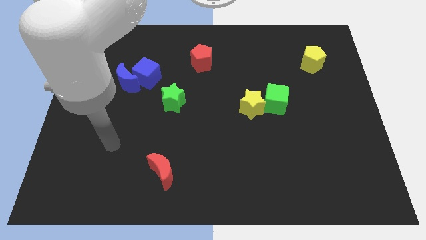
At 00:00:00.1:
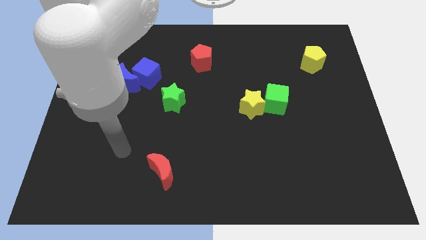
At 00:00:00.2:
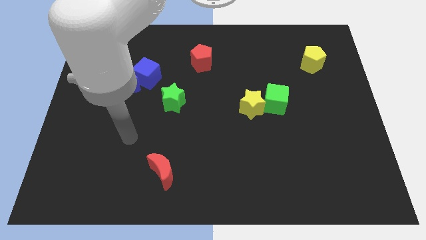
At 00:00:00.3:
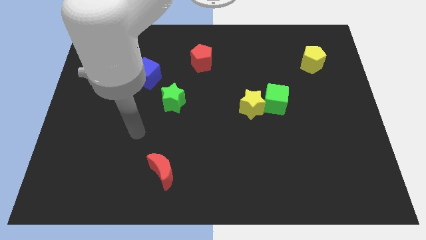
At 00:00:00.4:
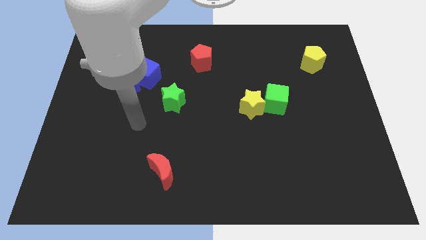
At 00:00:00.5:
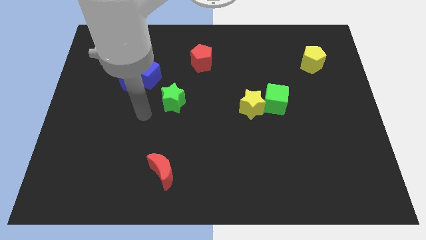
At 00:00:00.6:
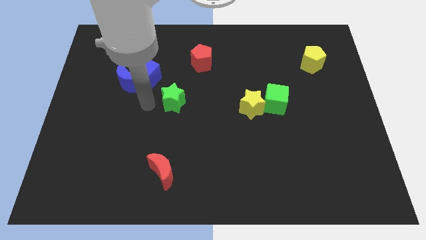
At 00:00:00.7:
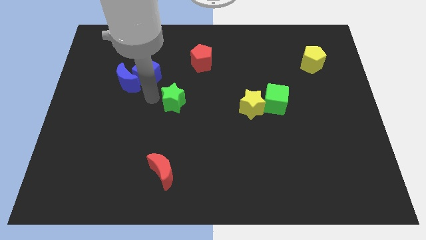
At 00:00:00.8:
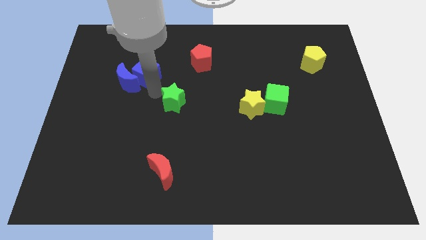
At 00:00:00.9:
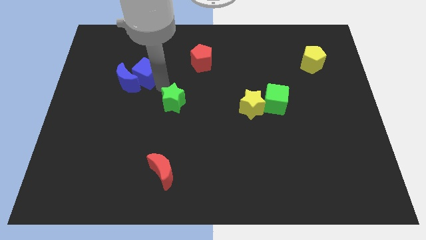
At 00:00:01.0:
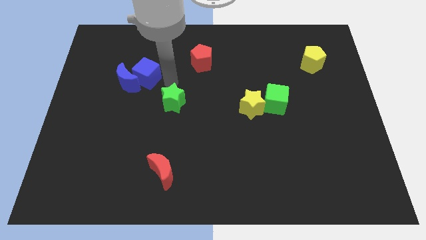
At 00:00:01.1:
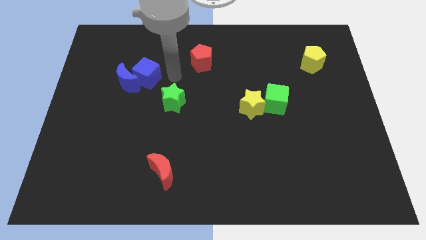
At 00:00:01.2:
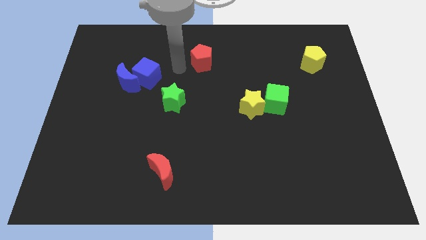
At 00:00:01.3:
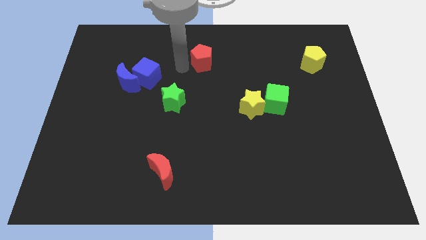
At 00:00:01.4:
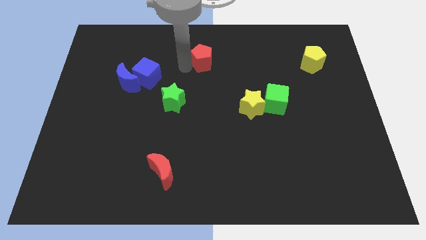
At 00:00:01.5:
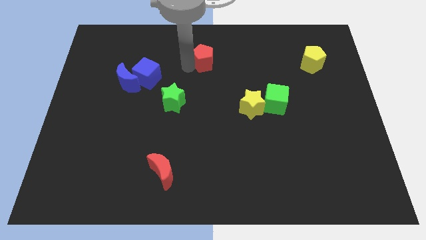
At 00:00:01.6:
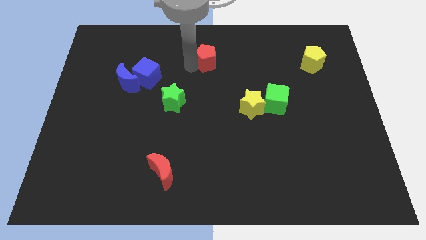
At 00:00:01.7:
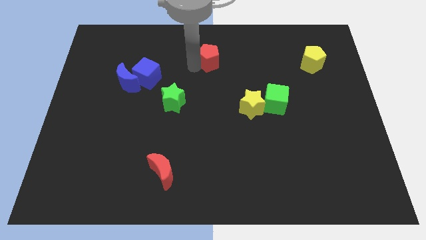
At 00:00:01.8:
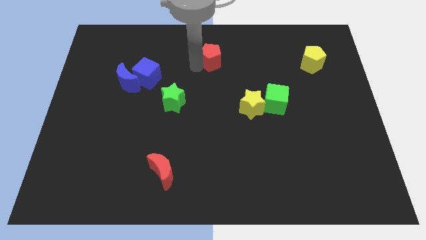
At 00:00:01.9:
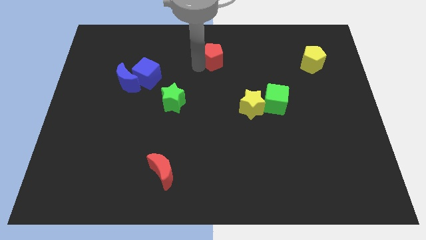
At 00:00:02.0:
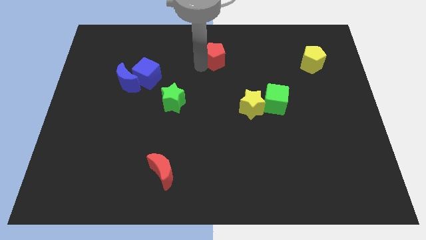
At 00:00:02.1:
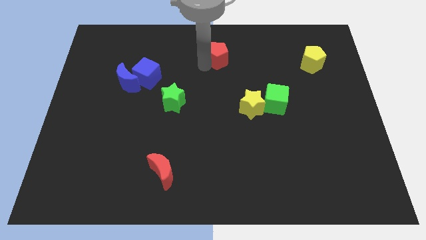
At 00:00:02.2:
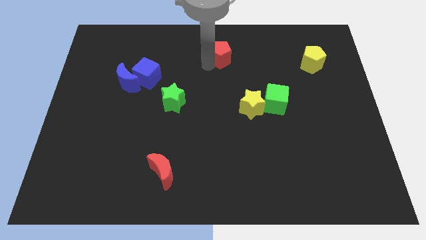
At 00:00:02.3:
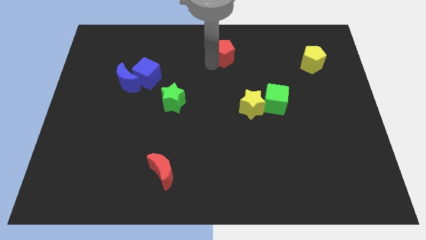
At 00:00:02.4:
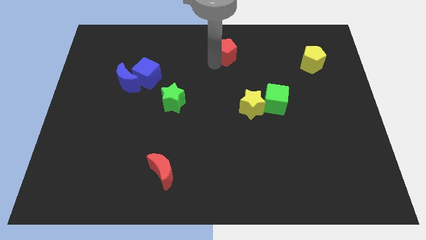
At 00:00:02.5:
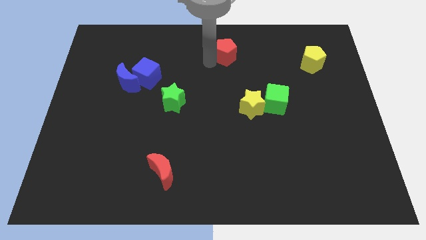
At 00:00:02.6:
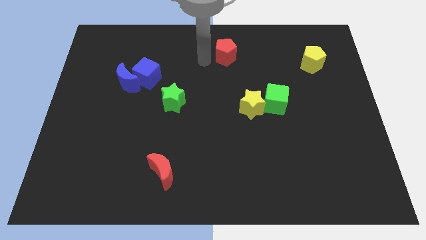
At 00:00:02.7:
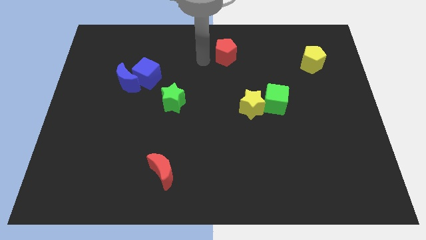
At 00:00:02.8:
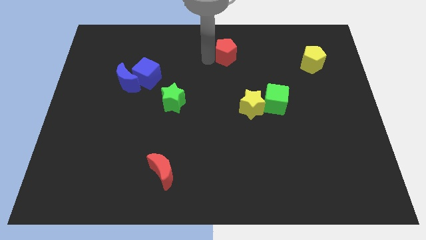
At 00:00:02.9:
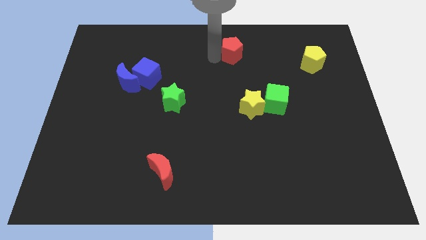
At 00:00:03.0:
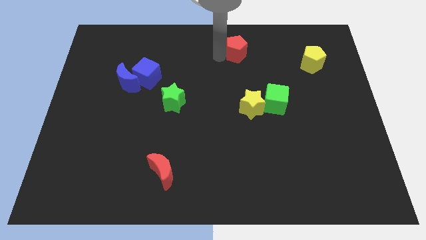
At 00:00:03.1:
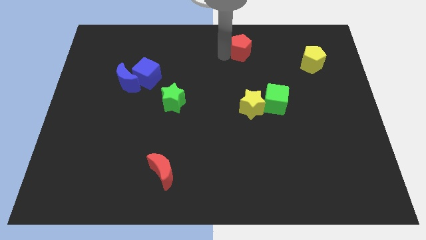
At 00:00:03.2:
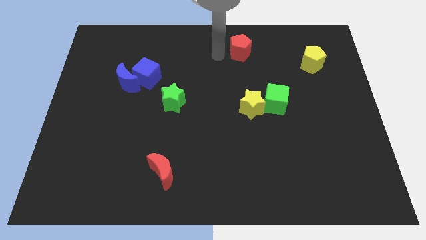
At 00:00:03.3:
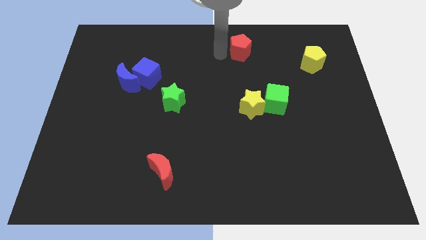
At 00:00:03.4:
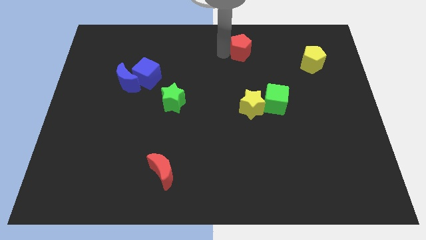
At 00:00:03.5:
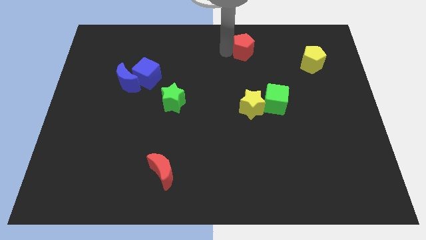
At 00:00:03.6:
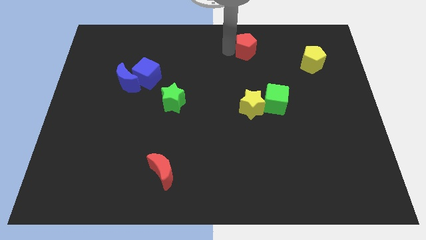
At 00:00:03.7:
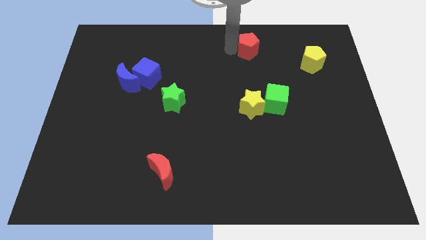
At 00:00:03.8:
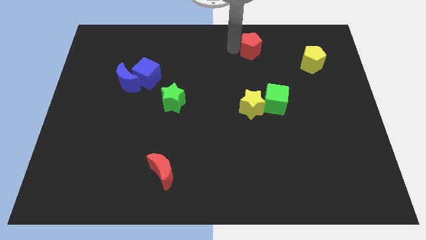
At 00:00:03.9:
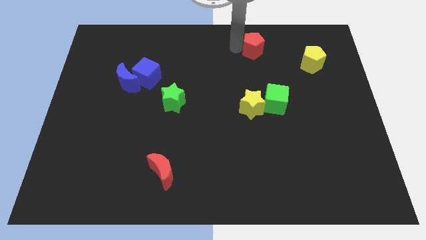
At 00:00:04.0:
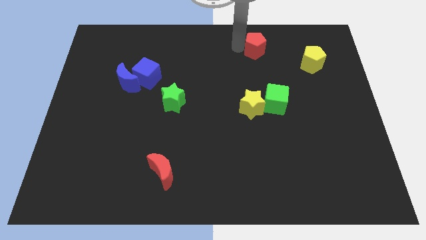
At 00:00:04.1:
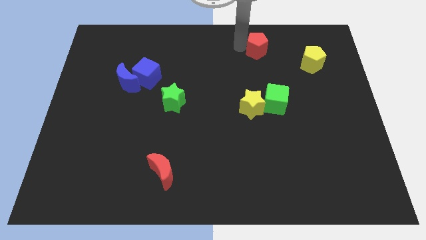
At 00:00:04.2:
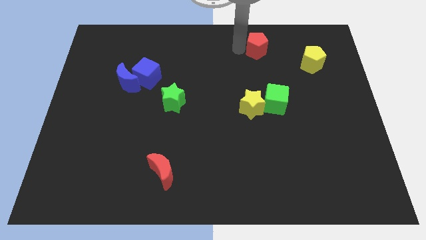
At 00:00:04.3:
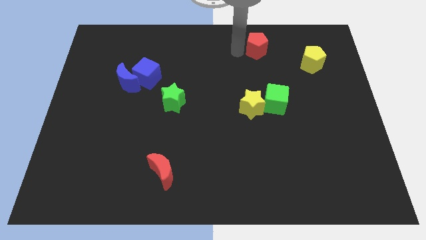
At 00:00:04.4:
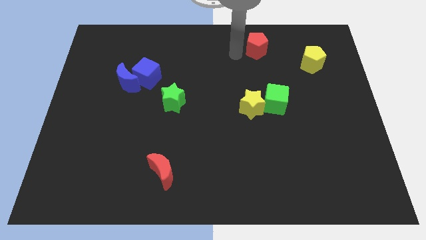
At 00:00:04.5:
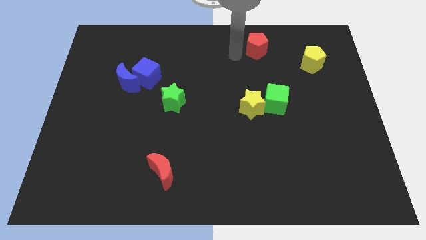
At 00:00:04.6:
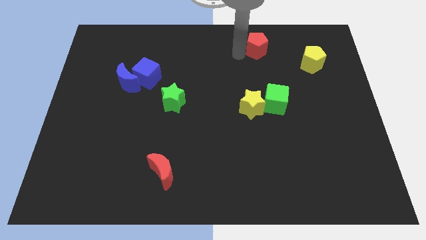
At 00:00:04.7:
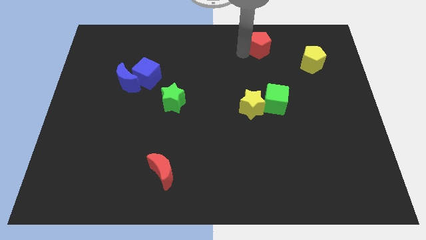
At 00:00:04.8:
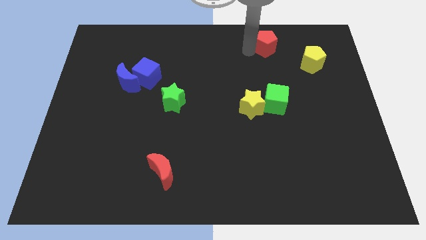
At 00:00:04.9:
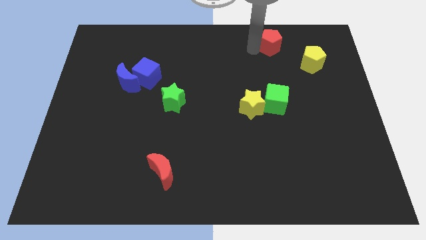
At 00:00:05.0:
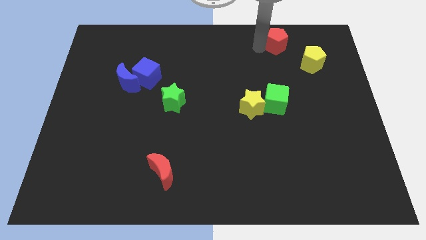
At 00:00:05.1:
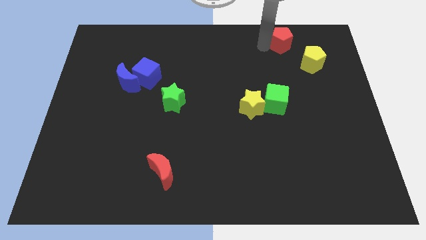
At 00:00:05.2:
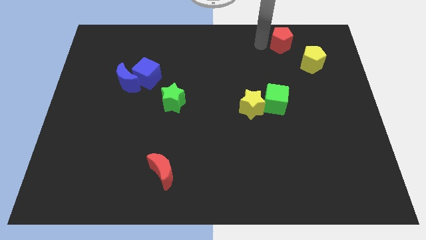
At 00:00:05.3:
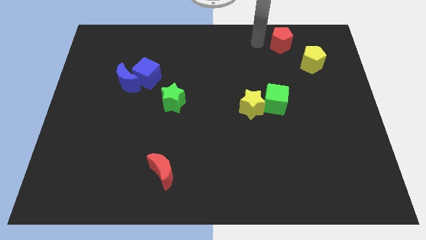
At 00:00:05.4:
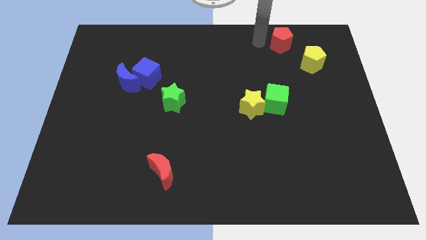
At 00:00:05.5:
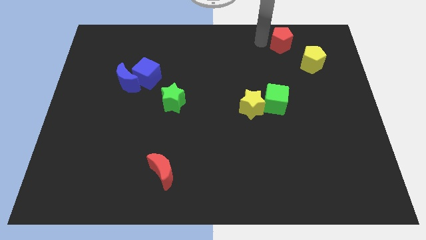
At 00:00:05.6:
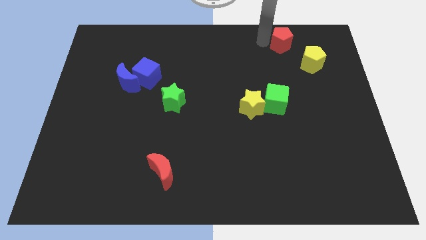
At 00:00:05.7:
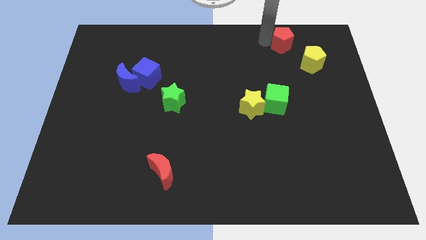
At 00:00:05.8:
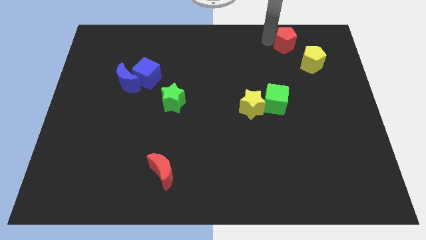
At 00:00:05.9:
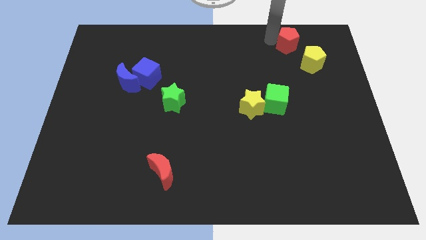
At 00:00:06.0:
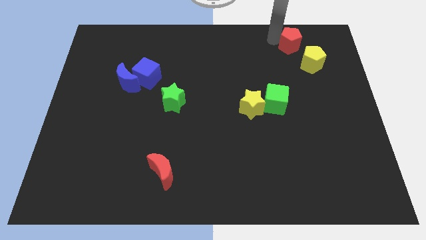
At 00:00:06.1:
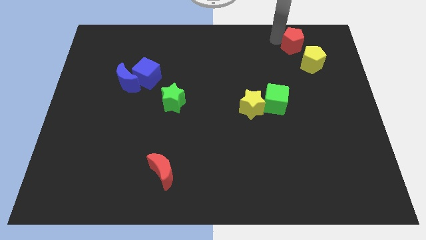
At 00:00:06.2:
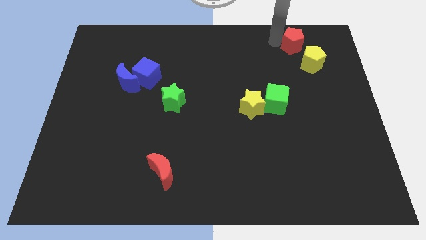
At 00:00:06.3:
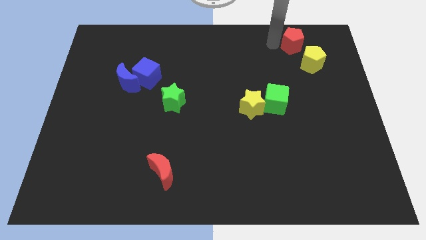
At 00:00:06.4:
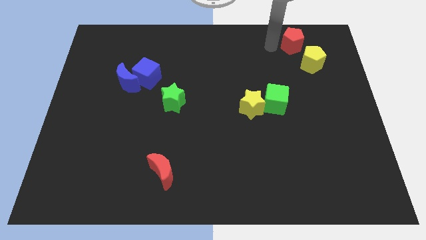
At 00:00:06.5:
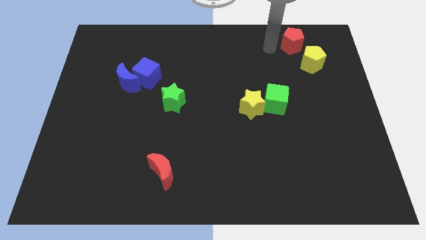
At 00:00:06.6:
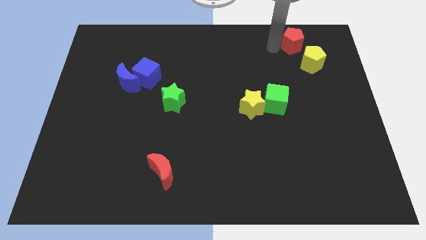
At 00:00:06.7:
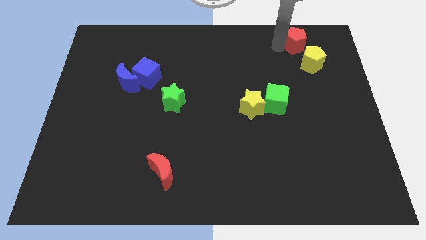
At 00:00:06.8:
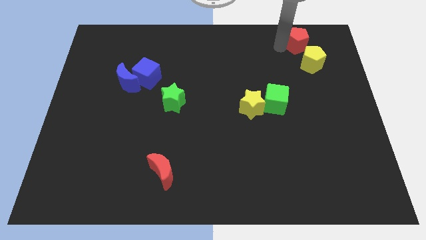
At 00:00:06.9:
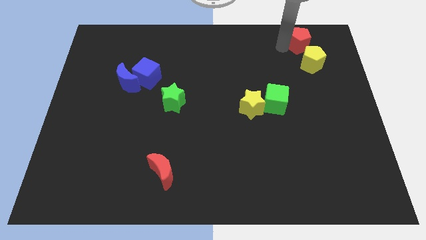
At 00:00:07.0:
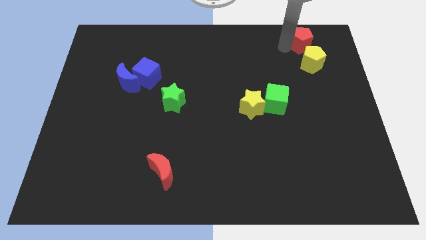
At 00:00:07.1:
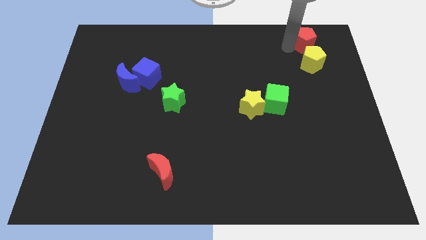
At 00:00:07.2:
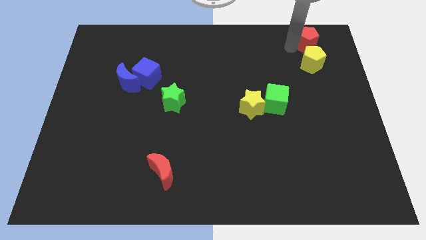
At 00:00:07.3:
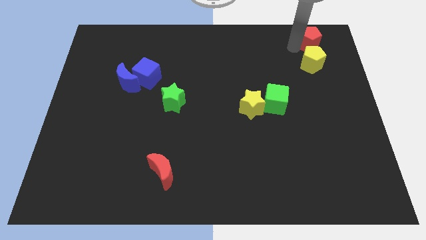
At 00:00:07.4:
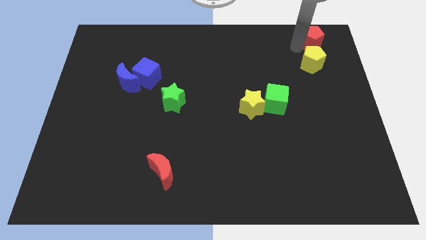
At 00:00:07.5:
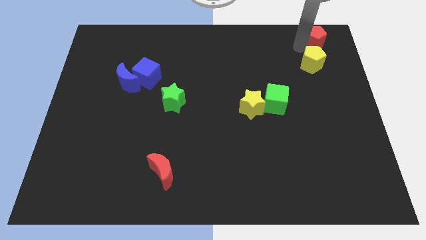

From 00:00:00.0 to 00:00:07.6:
move the red pentagon to the top right corner
